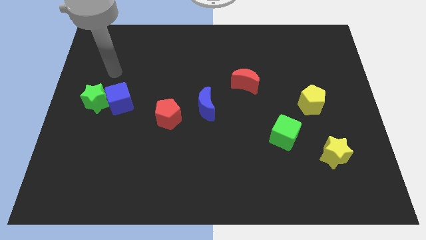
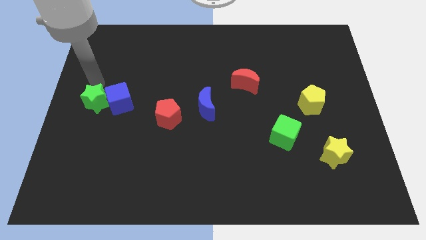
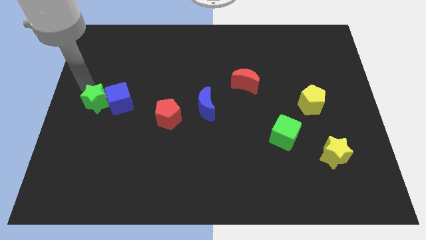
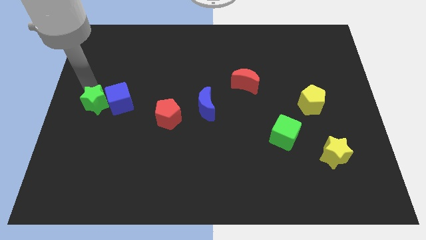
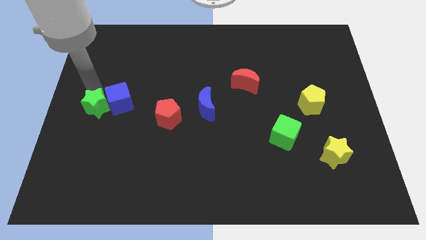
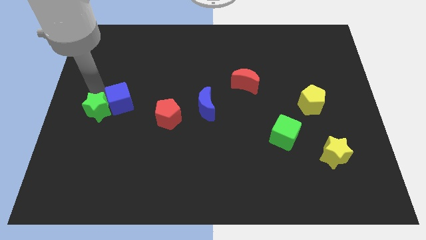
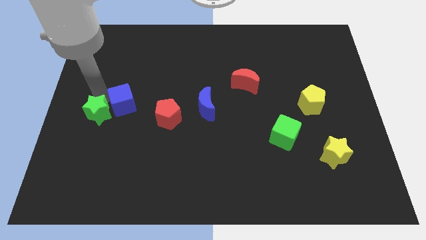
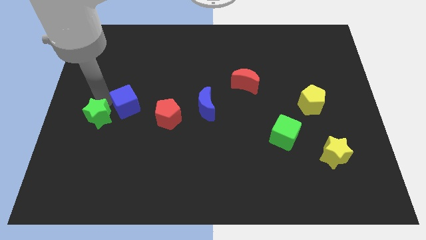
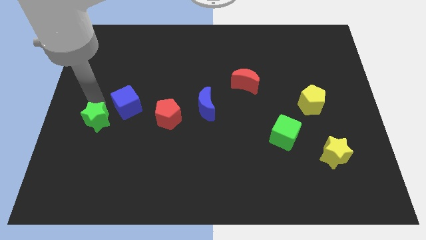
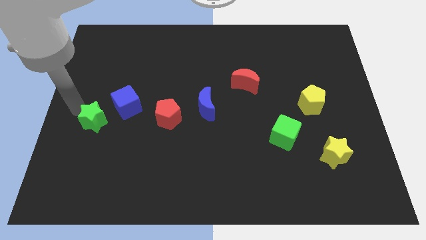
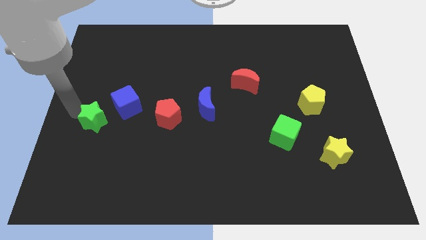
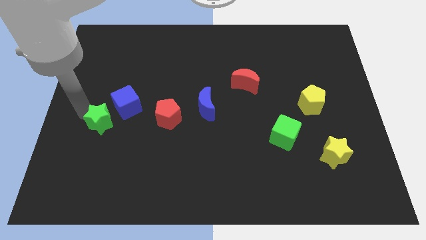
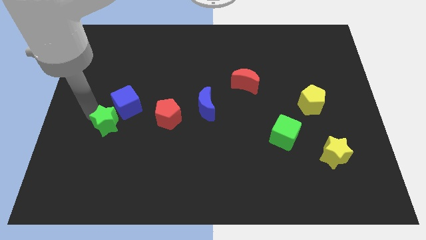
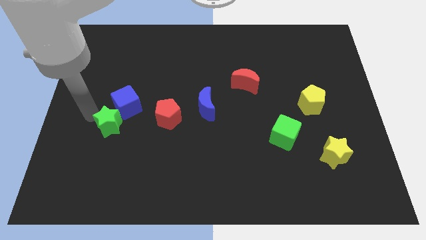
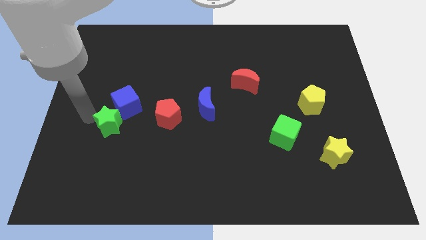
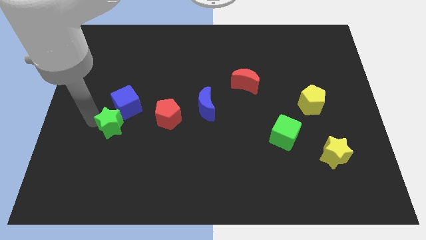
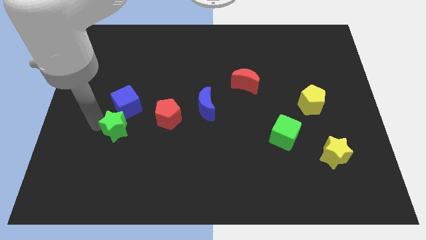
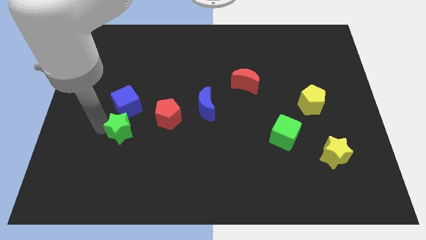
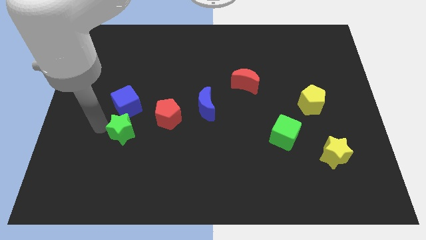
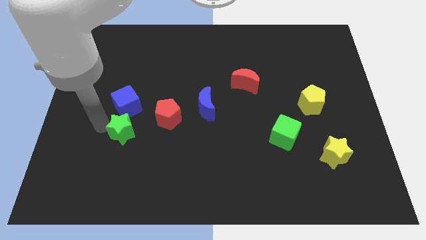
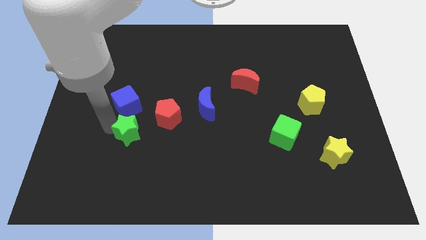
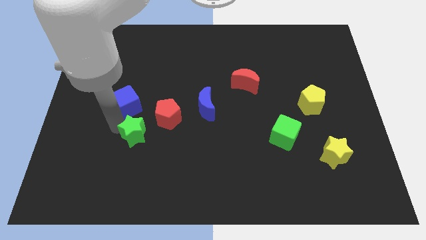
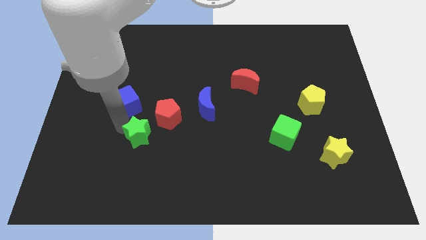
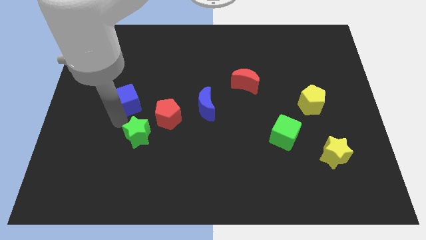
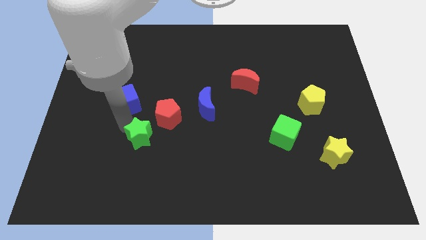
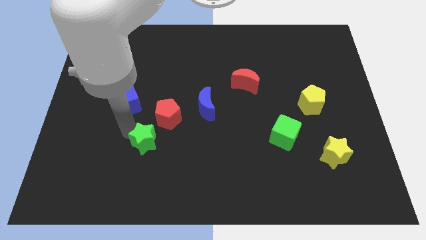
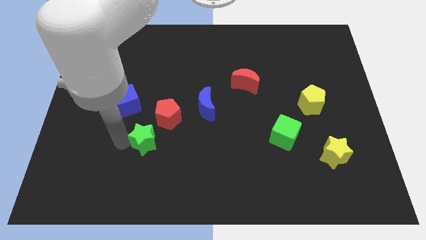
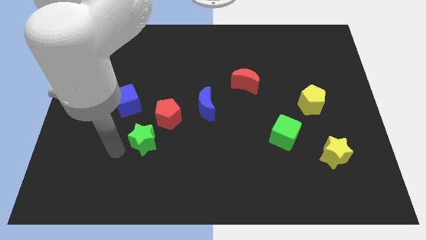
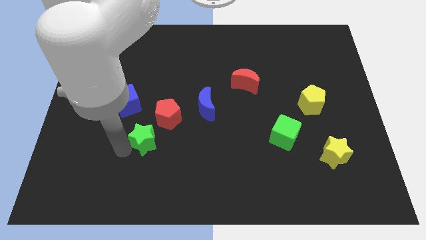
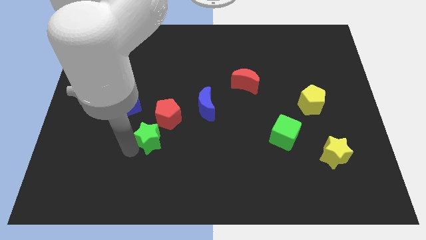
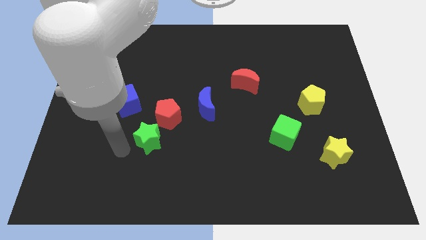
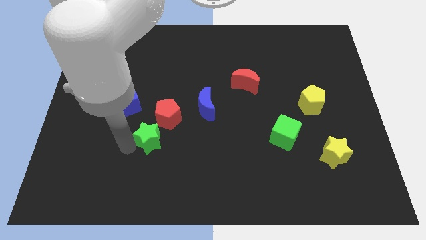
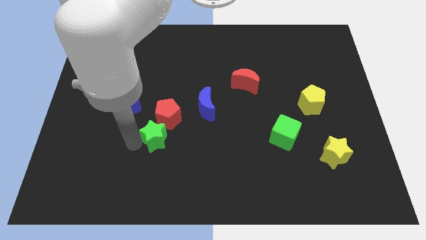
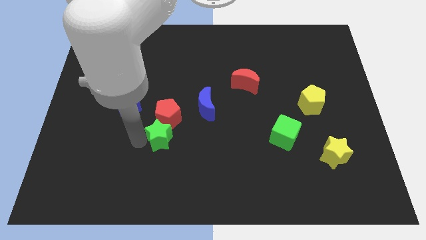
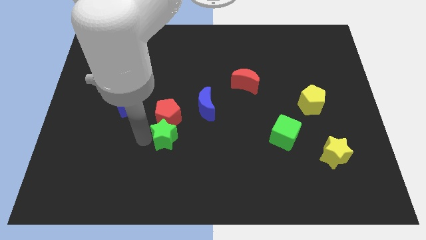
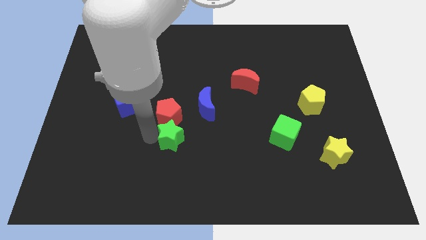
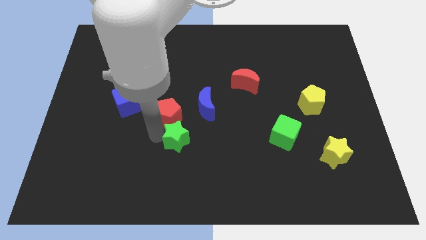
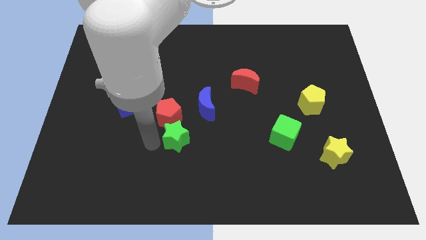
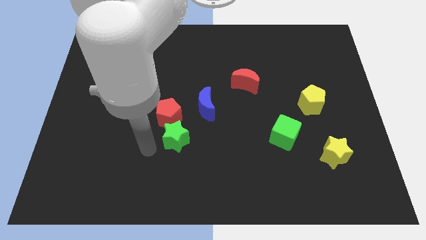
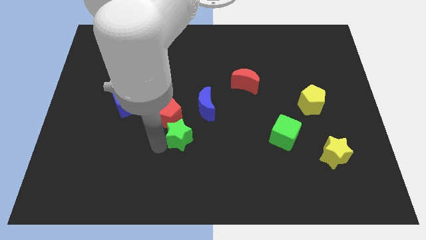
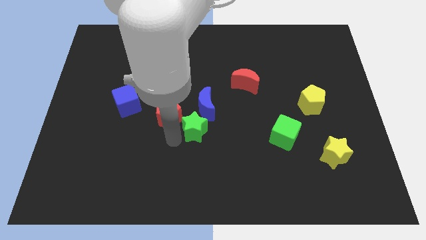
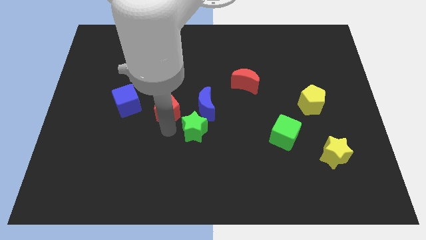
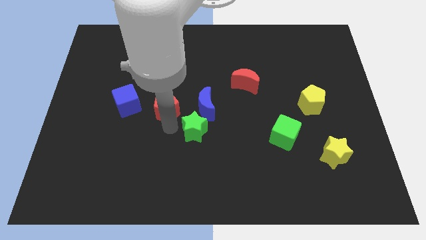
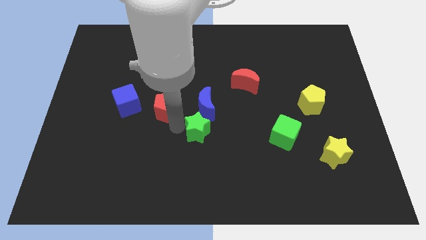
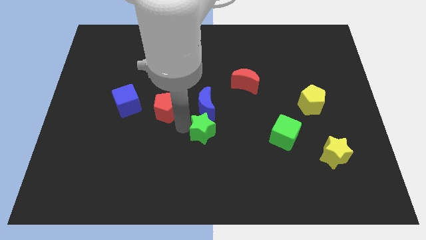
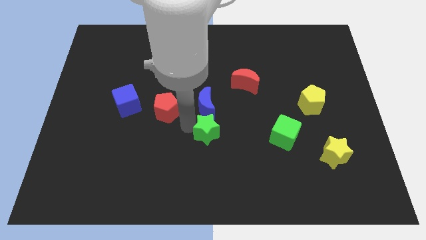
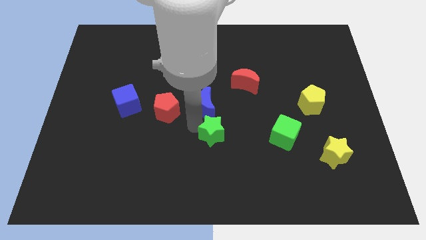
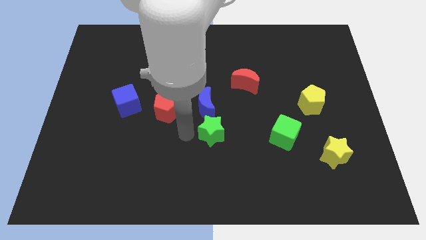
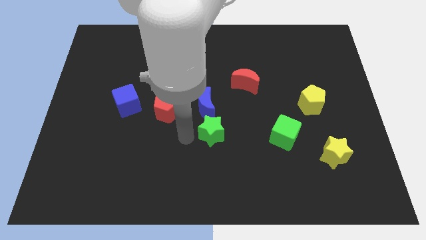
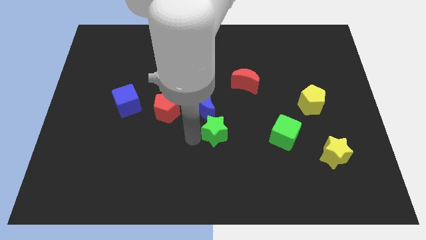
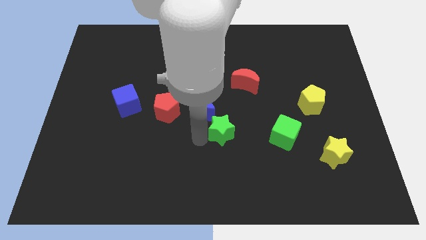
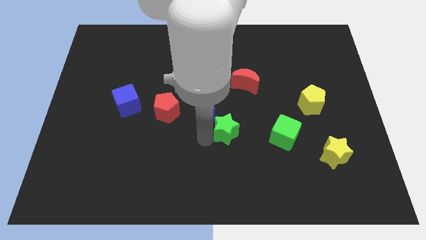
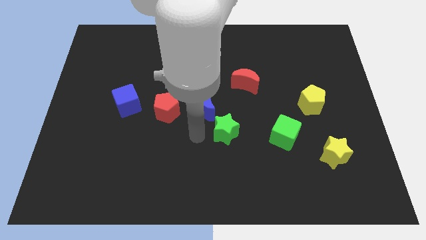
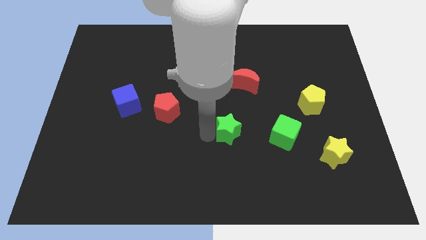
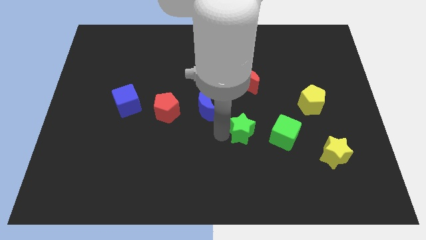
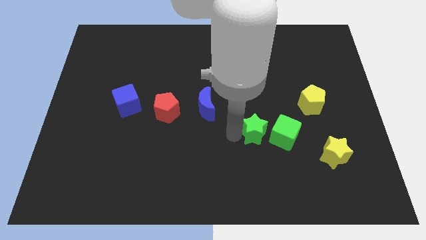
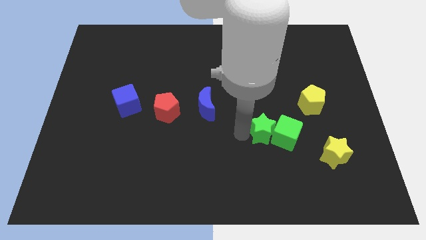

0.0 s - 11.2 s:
put the green star close to the green cube

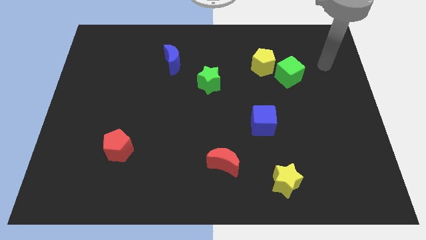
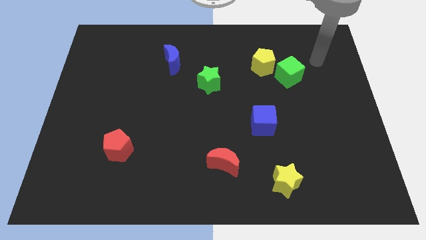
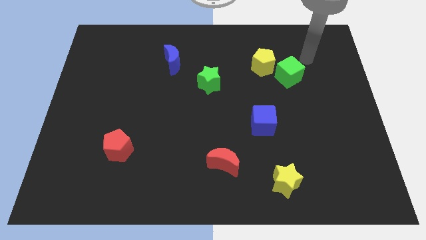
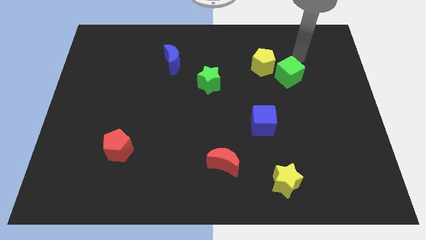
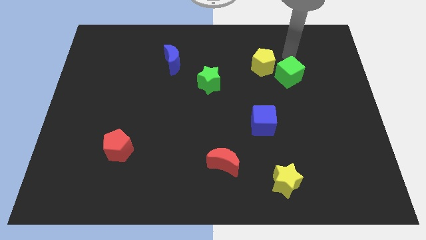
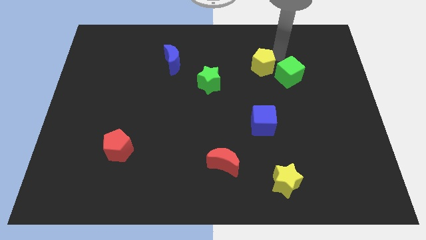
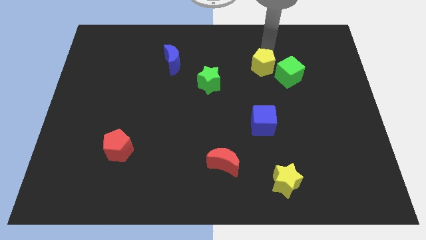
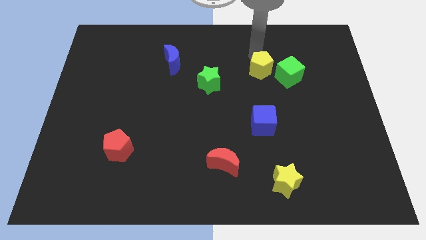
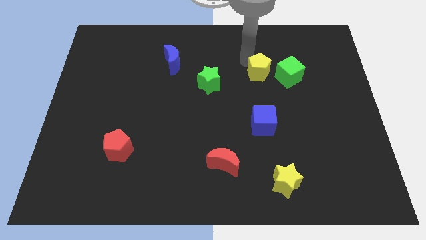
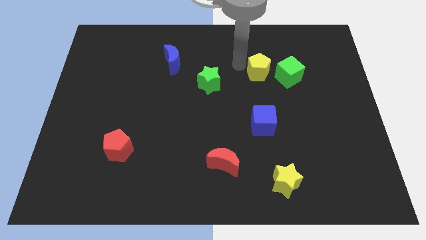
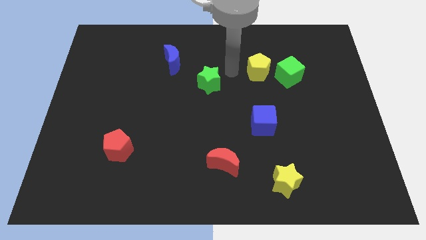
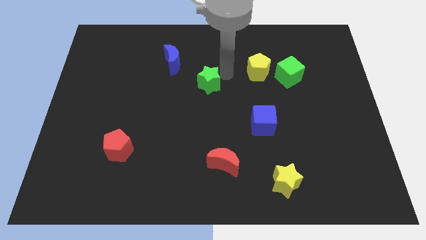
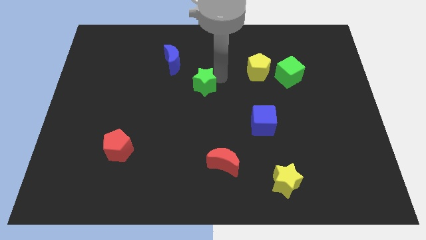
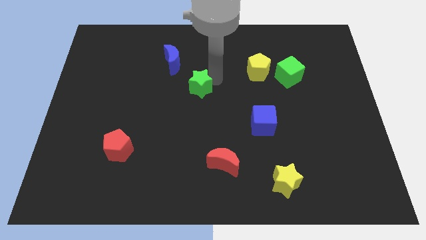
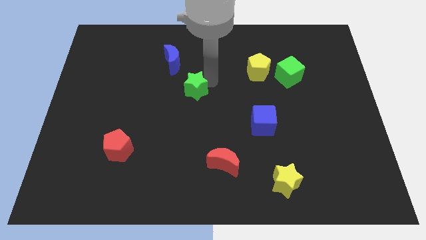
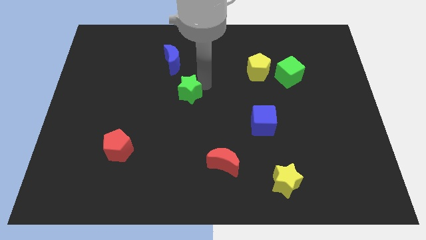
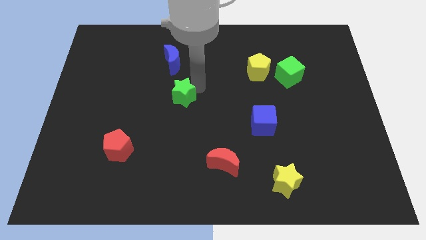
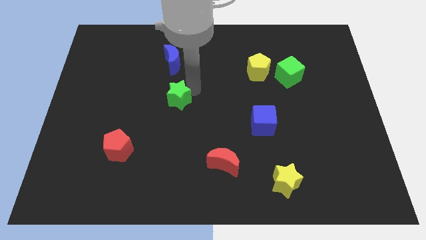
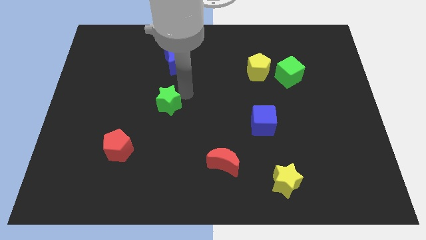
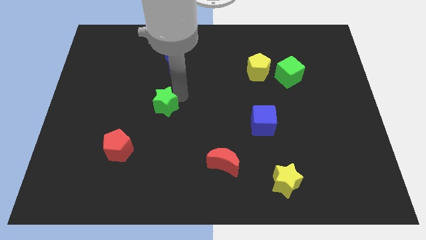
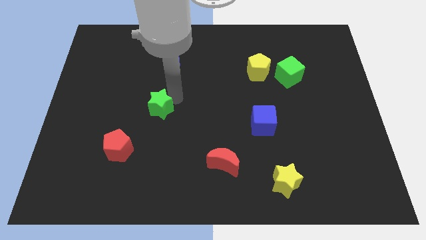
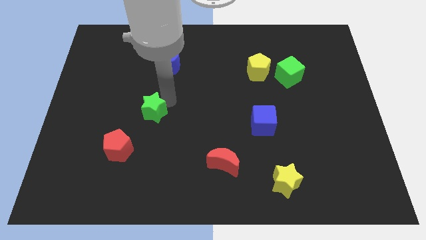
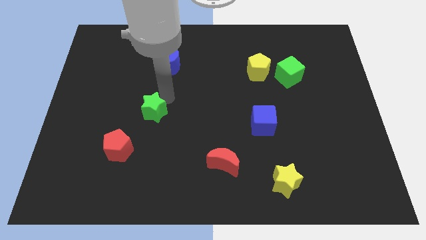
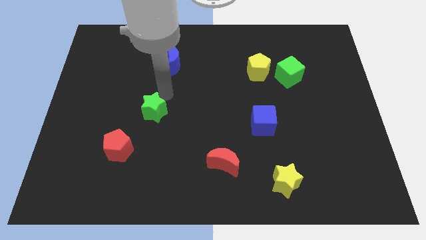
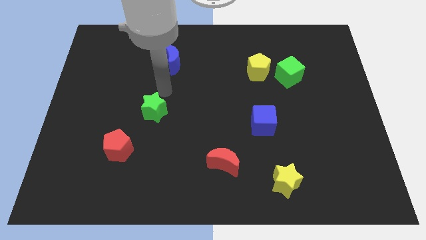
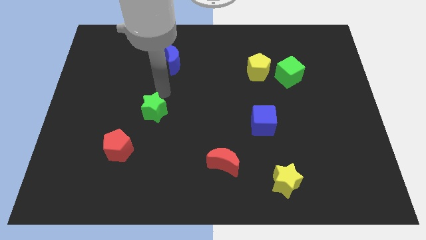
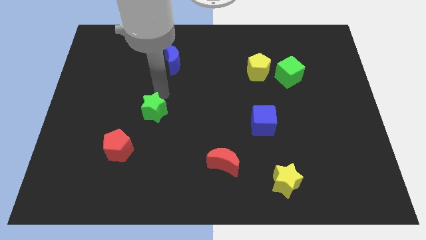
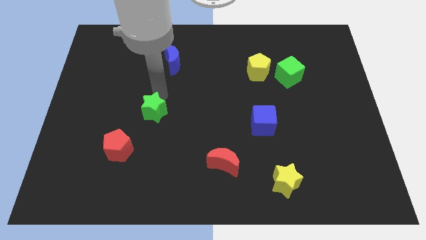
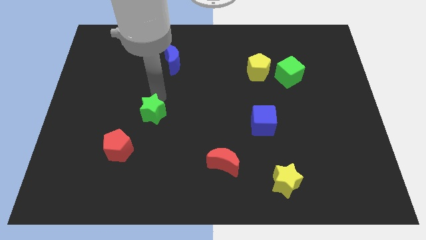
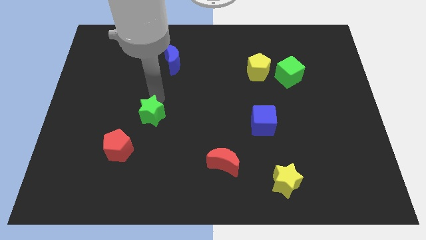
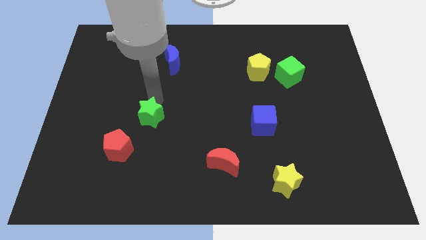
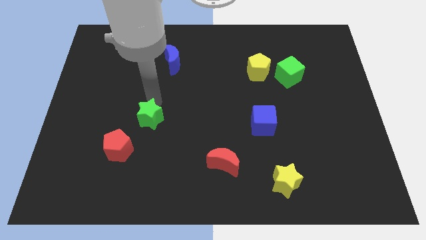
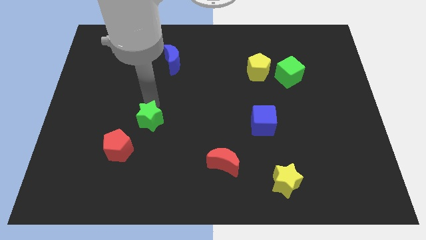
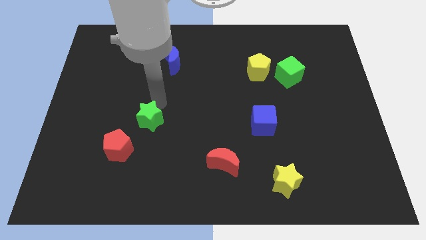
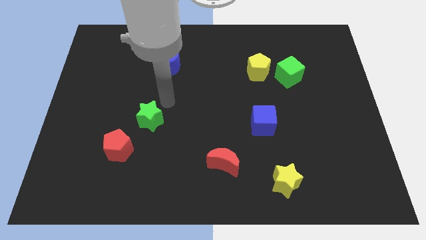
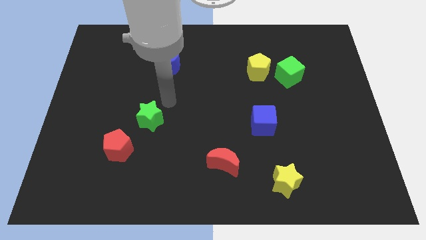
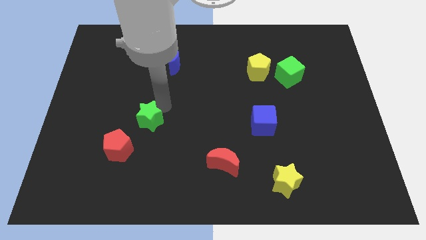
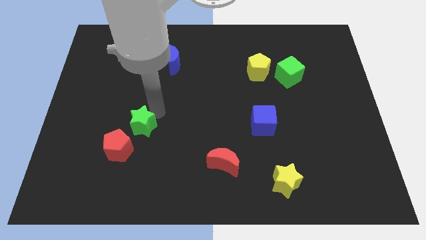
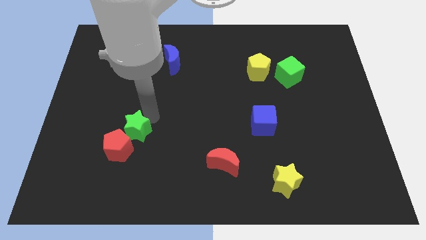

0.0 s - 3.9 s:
move the green star next to the red pentagon
